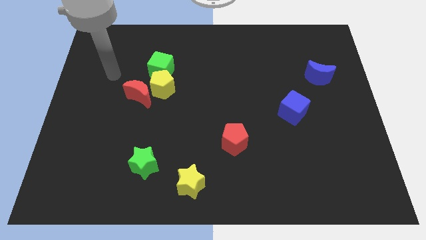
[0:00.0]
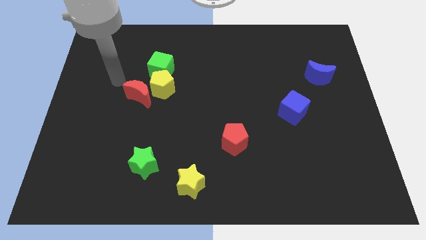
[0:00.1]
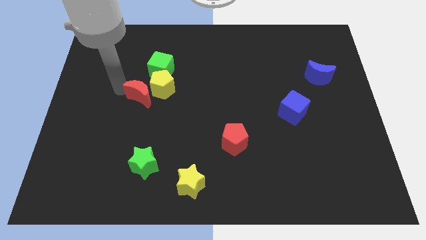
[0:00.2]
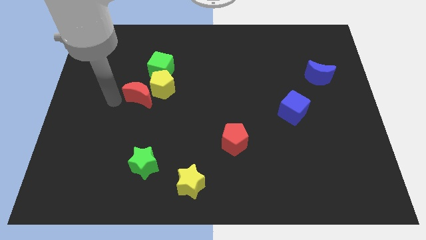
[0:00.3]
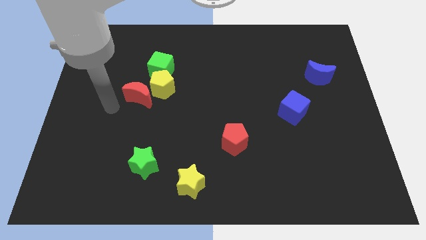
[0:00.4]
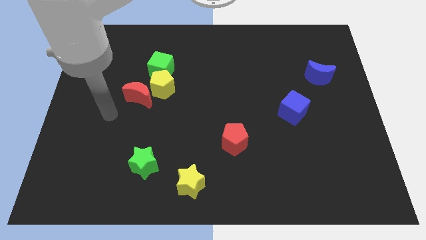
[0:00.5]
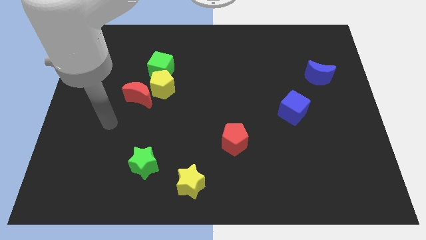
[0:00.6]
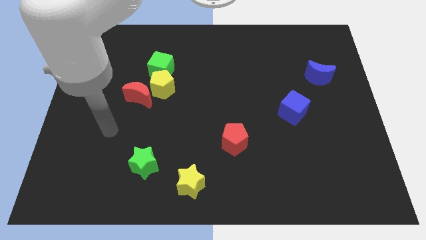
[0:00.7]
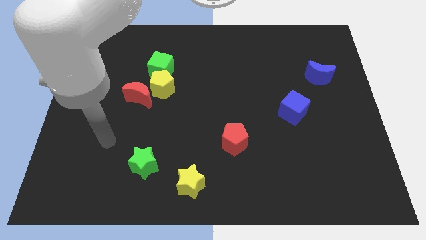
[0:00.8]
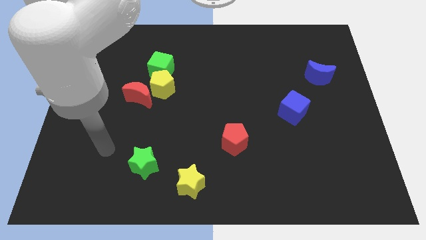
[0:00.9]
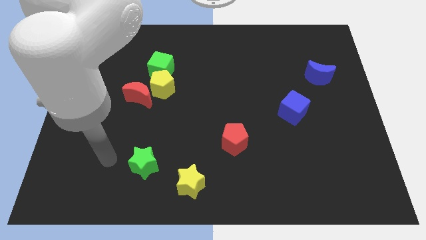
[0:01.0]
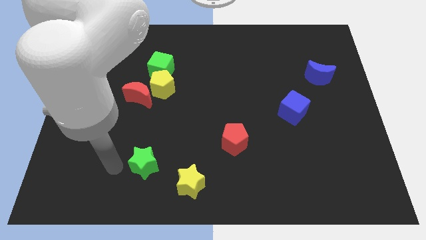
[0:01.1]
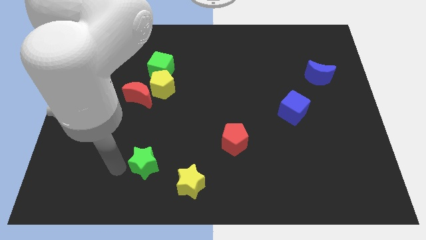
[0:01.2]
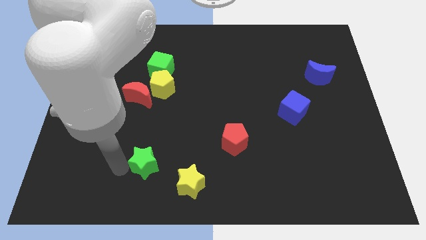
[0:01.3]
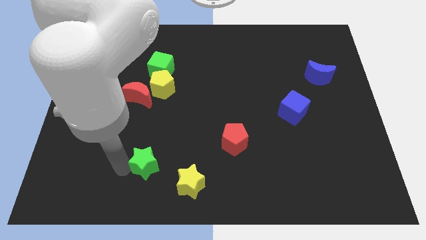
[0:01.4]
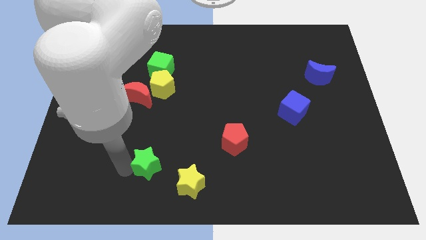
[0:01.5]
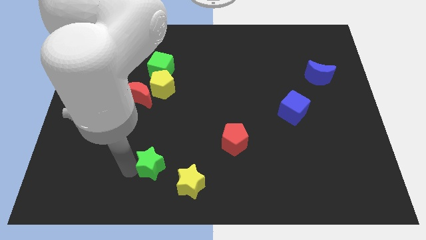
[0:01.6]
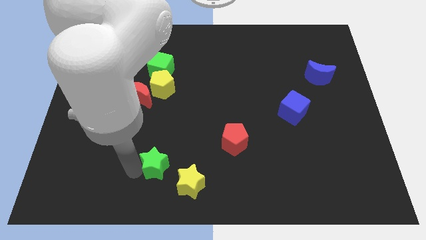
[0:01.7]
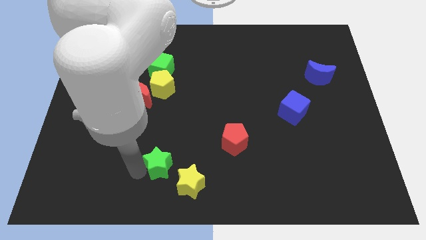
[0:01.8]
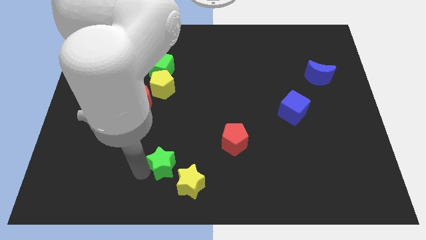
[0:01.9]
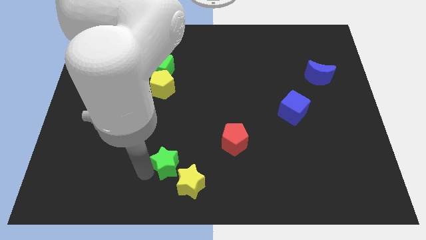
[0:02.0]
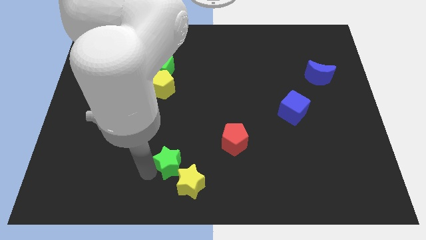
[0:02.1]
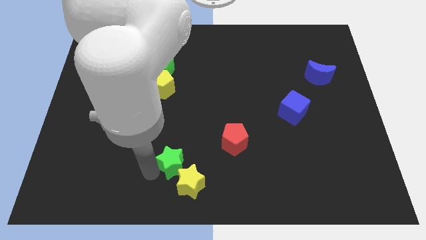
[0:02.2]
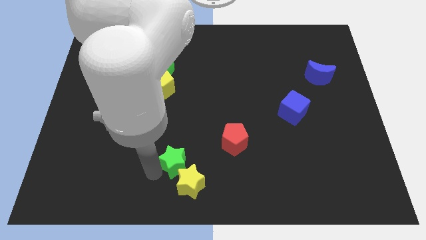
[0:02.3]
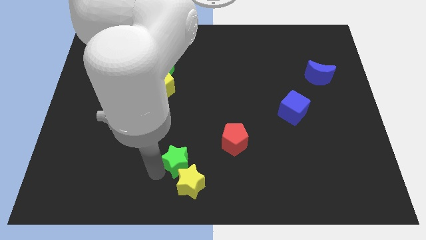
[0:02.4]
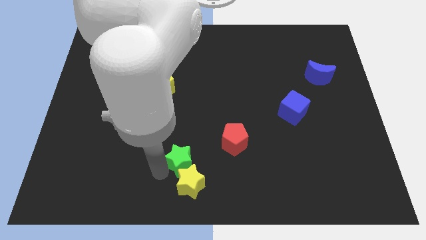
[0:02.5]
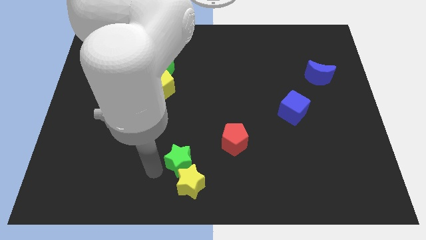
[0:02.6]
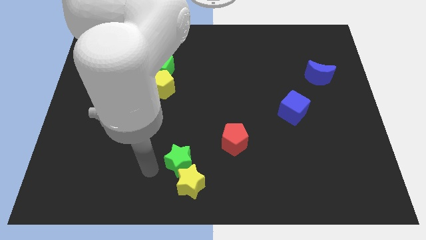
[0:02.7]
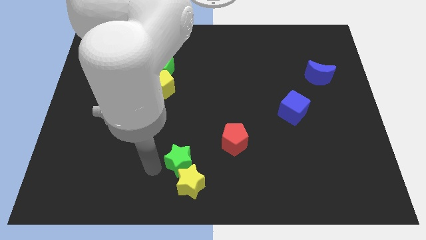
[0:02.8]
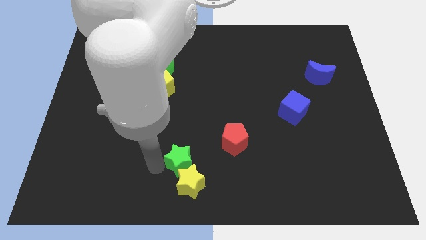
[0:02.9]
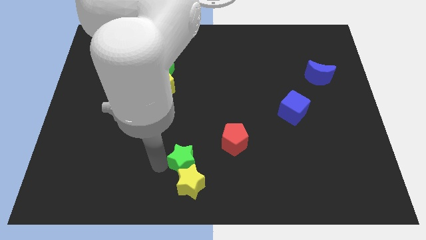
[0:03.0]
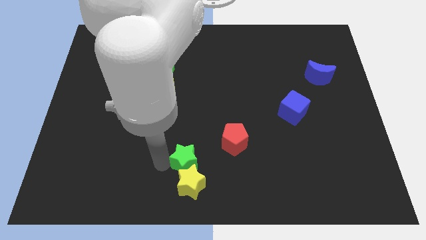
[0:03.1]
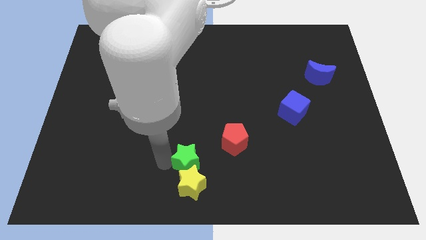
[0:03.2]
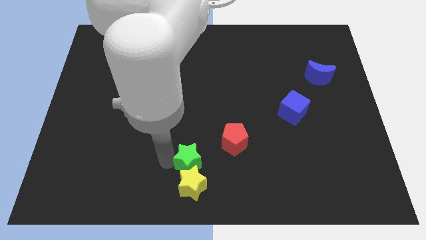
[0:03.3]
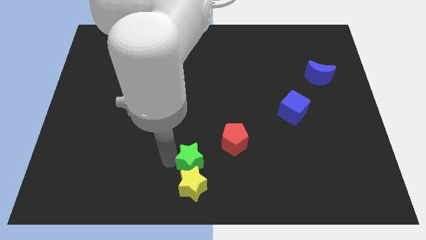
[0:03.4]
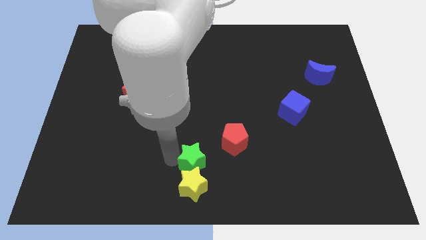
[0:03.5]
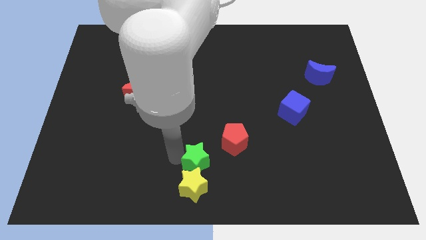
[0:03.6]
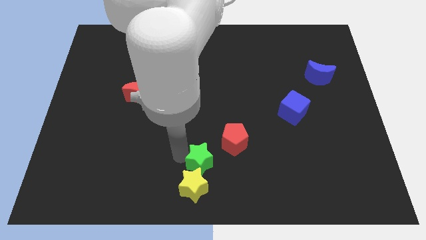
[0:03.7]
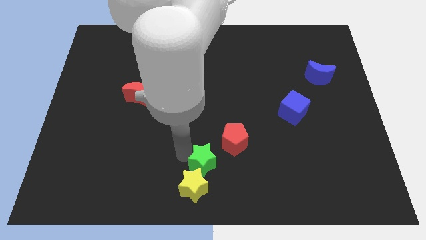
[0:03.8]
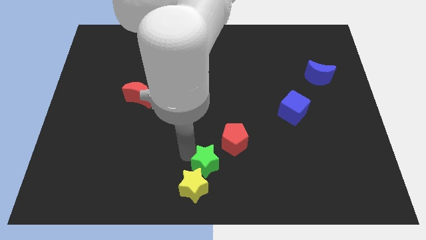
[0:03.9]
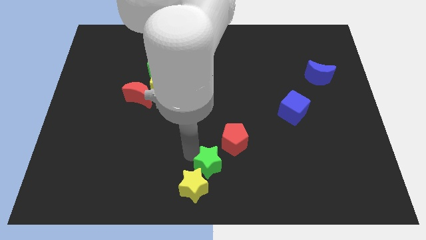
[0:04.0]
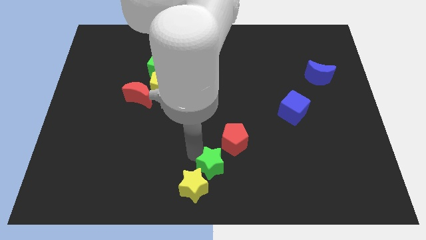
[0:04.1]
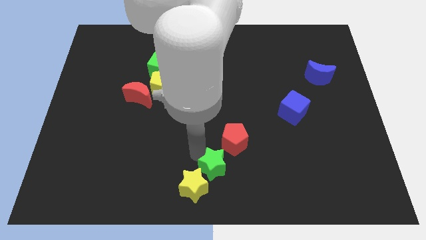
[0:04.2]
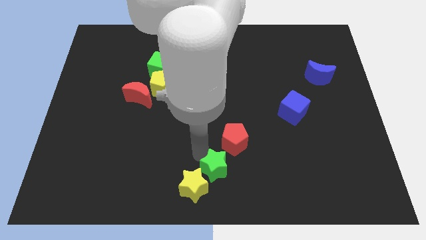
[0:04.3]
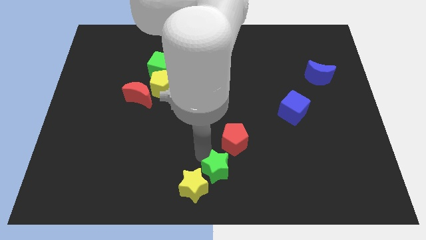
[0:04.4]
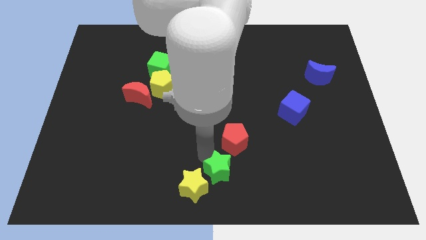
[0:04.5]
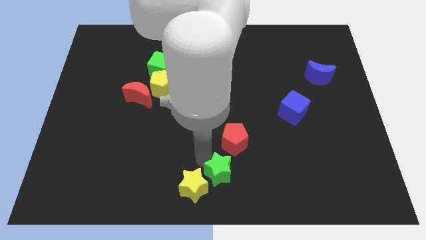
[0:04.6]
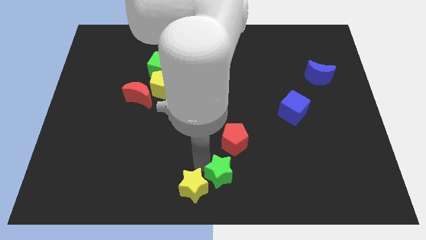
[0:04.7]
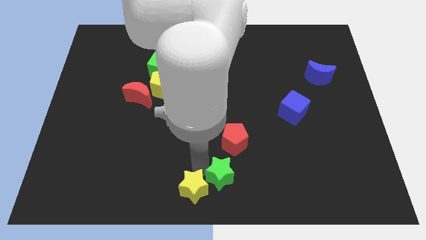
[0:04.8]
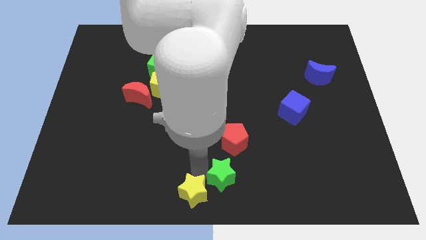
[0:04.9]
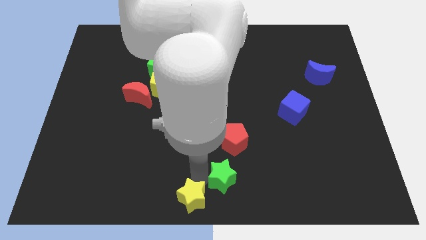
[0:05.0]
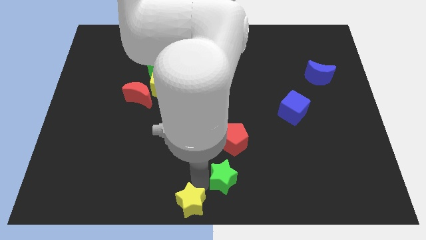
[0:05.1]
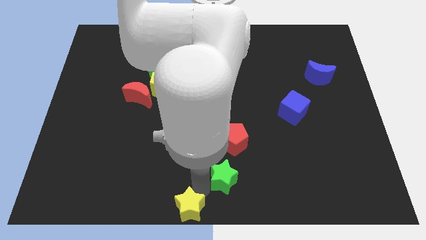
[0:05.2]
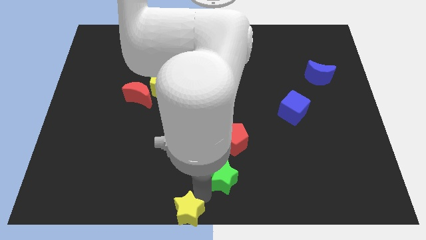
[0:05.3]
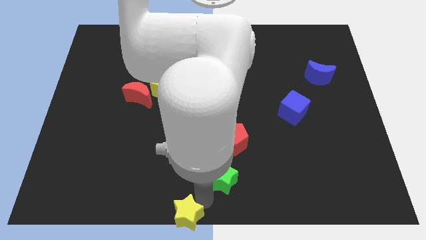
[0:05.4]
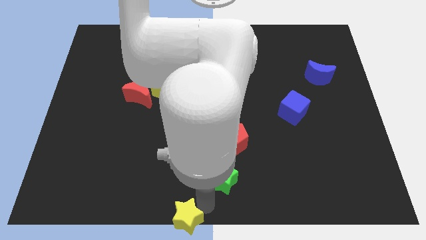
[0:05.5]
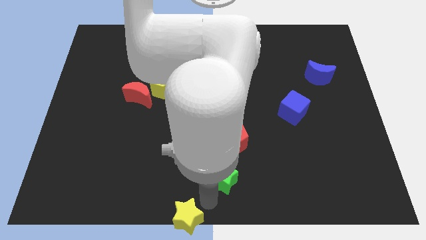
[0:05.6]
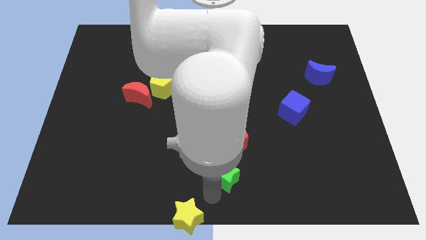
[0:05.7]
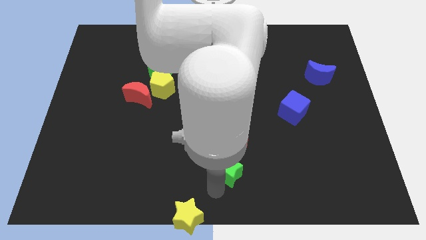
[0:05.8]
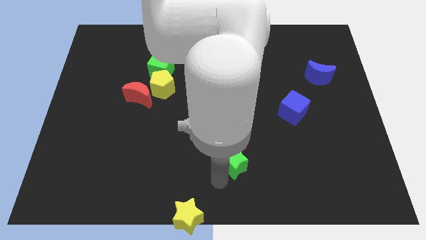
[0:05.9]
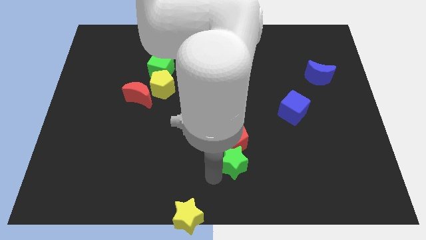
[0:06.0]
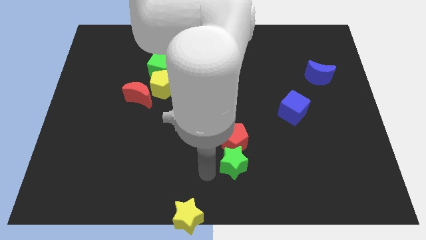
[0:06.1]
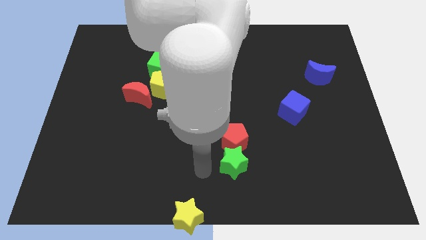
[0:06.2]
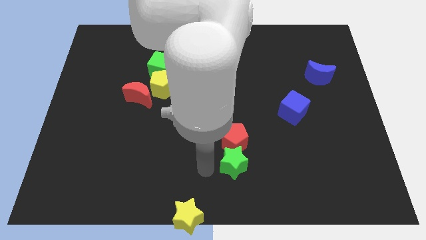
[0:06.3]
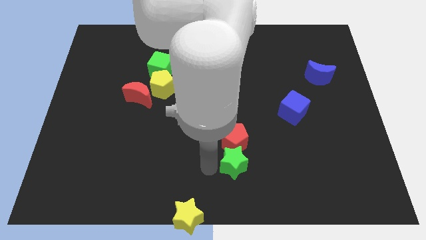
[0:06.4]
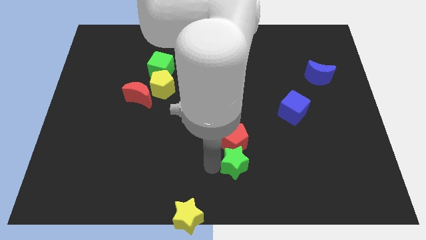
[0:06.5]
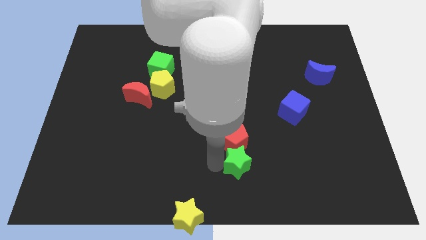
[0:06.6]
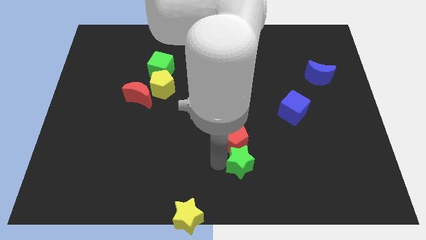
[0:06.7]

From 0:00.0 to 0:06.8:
slide the green star to the right

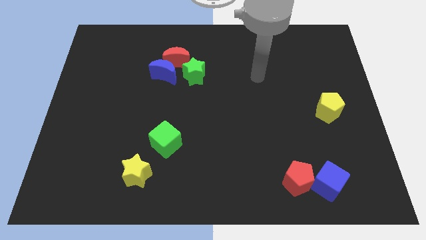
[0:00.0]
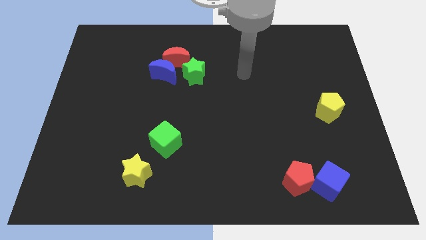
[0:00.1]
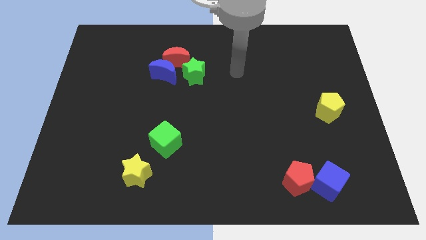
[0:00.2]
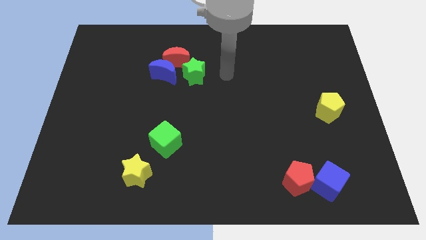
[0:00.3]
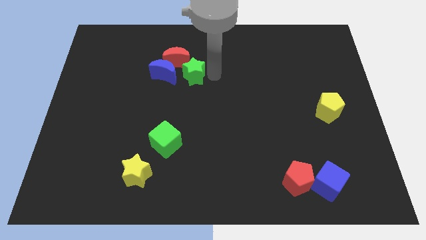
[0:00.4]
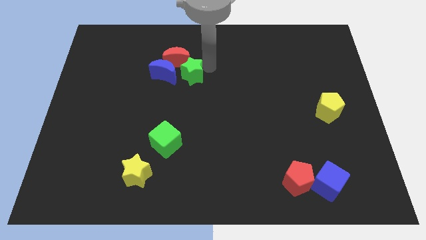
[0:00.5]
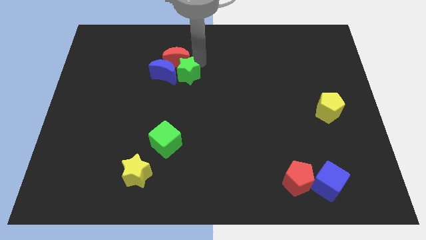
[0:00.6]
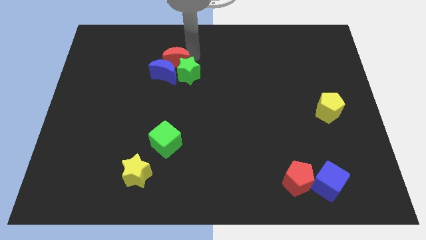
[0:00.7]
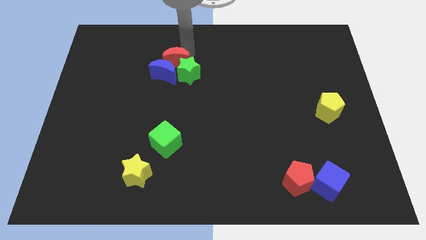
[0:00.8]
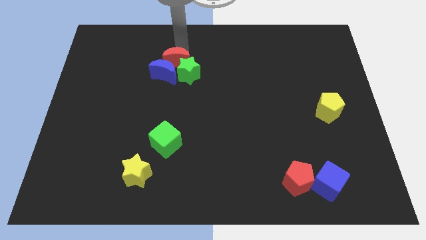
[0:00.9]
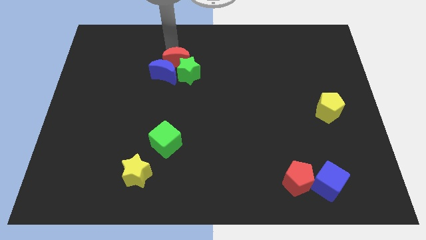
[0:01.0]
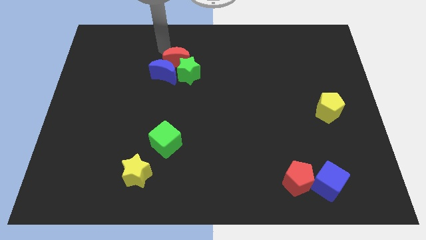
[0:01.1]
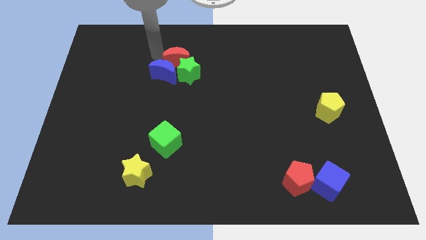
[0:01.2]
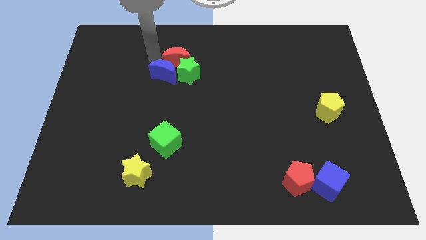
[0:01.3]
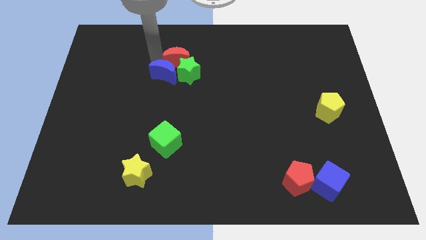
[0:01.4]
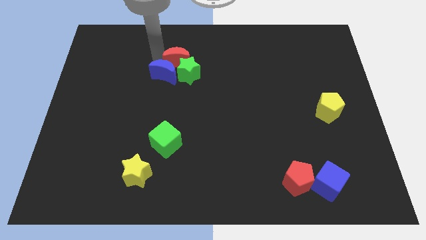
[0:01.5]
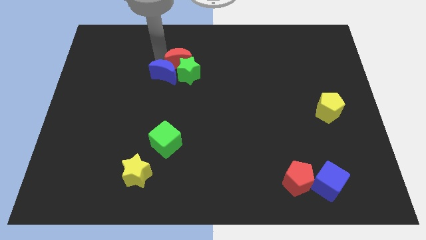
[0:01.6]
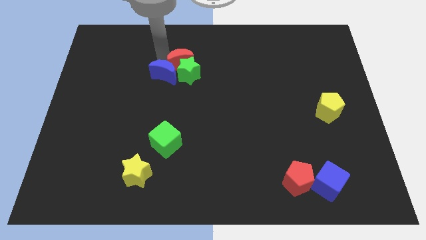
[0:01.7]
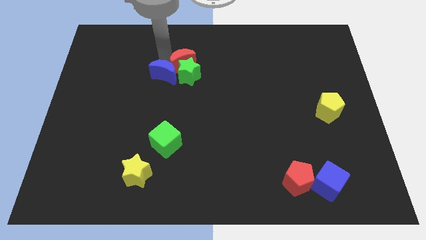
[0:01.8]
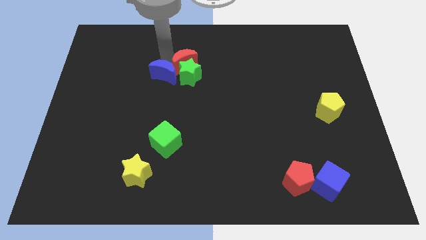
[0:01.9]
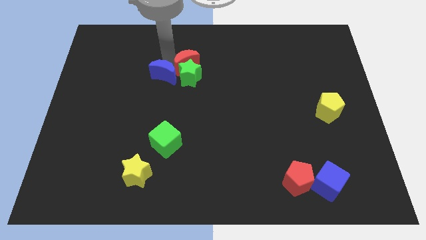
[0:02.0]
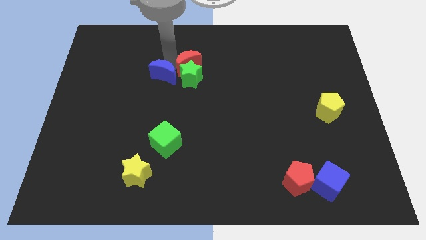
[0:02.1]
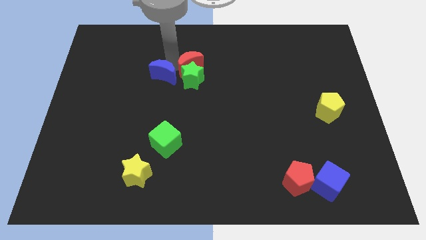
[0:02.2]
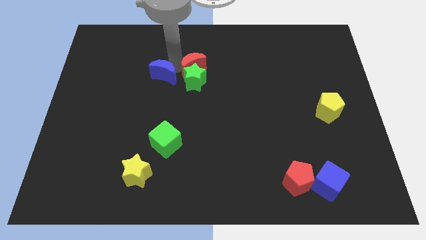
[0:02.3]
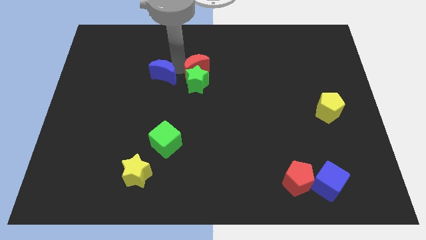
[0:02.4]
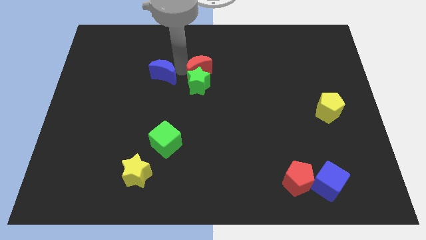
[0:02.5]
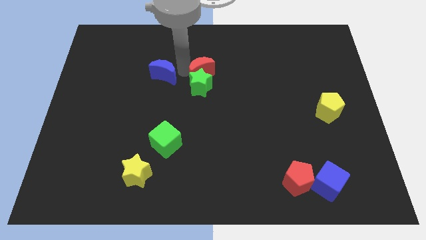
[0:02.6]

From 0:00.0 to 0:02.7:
slightly push the red moon downwards and right
